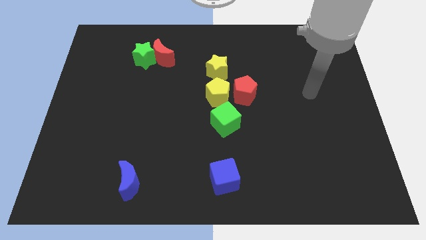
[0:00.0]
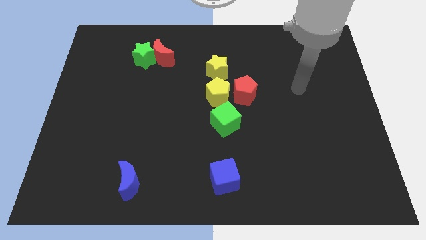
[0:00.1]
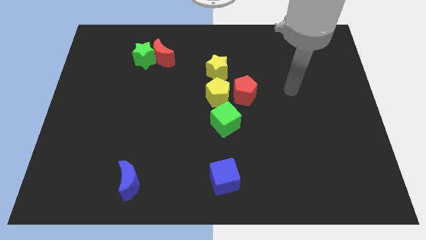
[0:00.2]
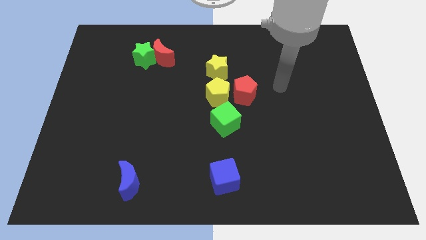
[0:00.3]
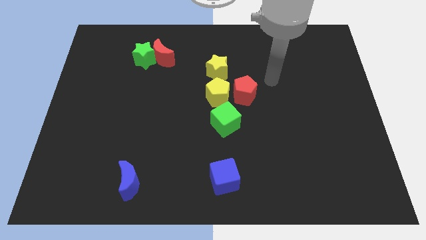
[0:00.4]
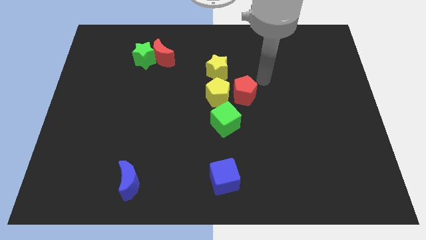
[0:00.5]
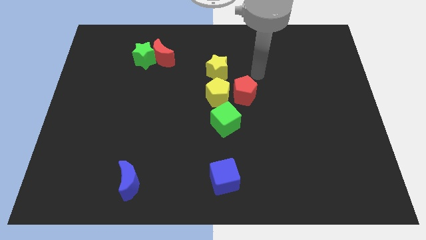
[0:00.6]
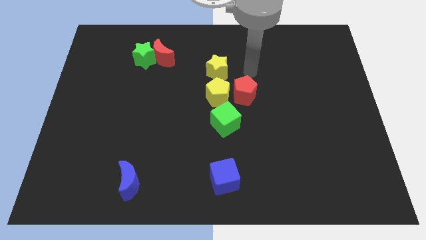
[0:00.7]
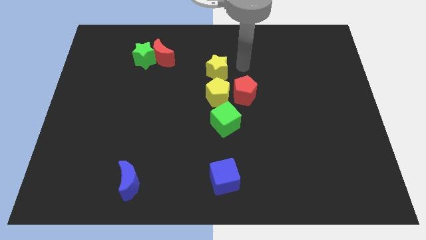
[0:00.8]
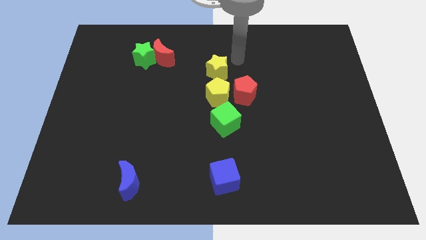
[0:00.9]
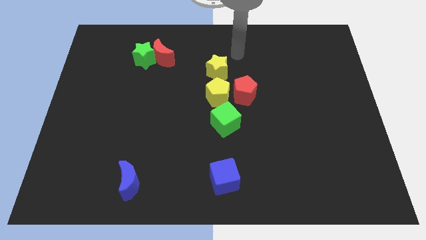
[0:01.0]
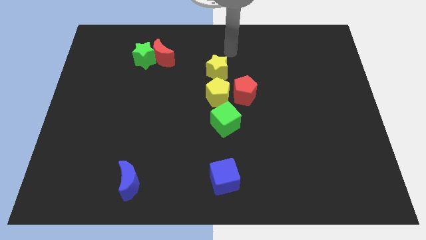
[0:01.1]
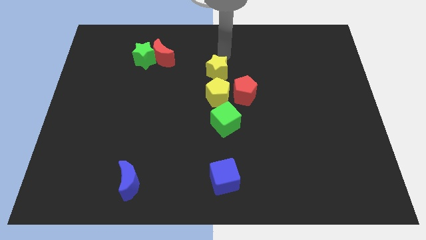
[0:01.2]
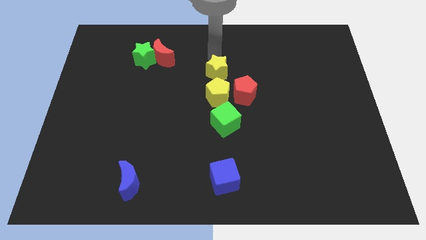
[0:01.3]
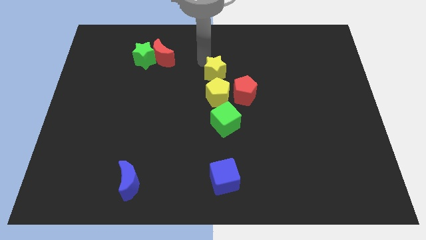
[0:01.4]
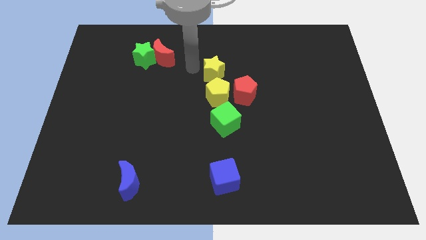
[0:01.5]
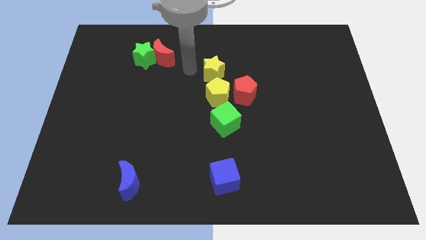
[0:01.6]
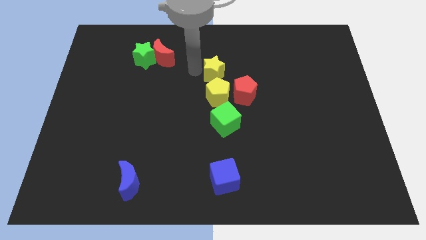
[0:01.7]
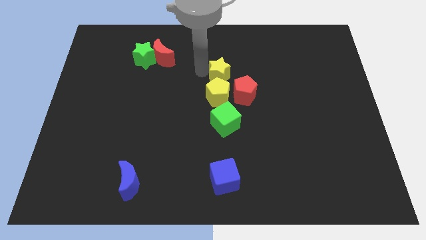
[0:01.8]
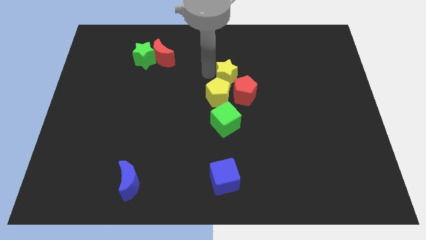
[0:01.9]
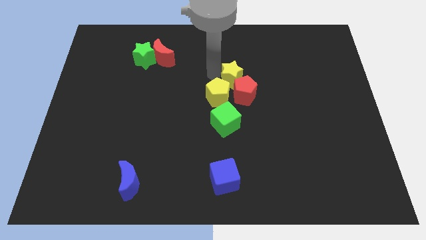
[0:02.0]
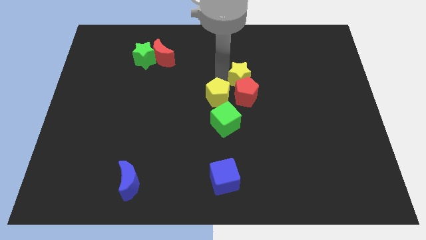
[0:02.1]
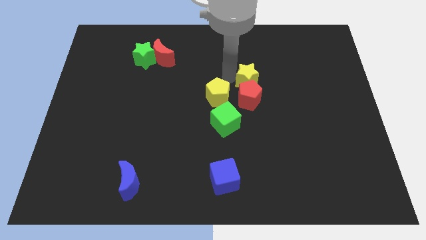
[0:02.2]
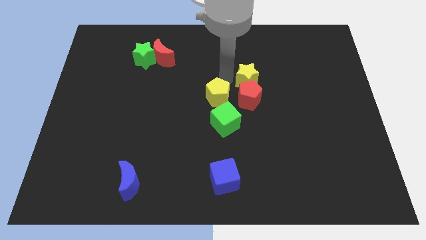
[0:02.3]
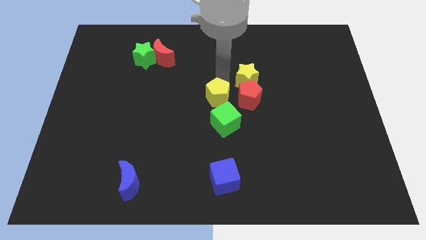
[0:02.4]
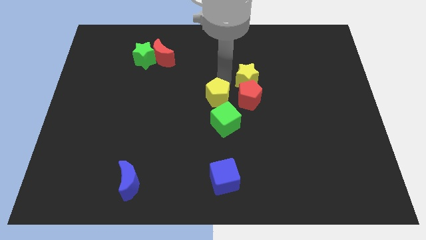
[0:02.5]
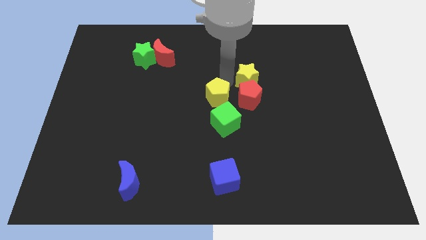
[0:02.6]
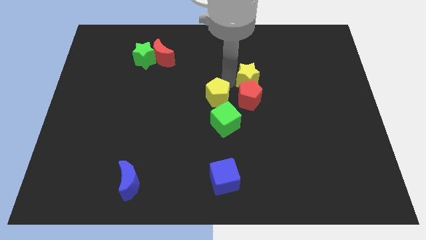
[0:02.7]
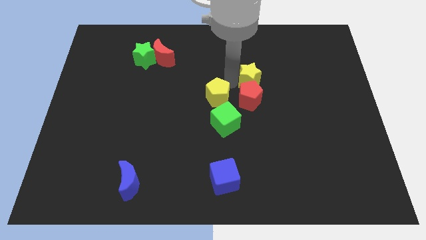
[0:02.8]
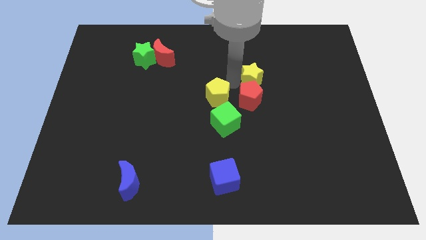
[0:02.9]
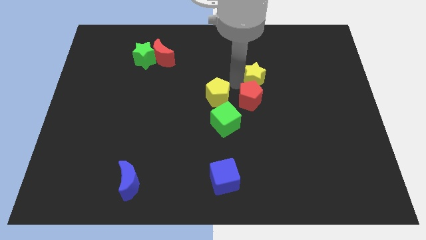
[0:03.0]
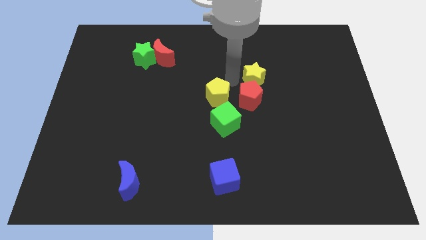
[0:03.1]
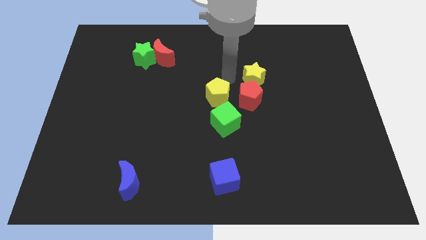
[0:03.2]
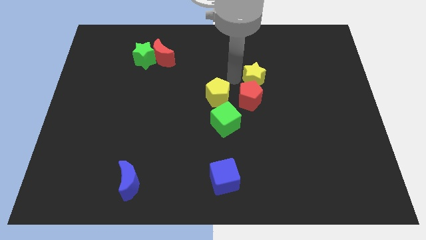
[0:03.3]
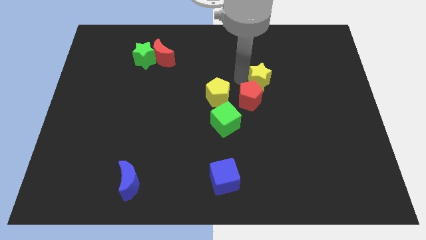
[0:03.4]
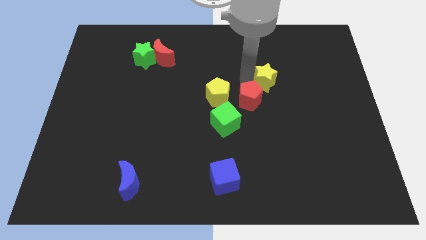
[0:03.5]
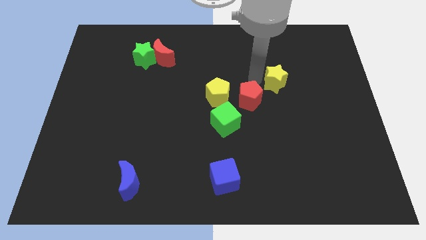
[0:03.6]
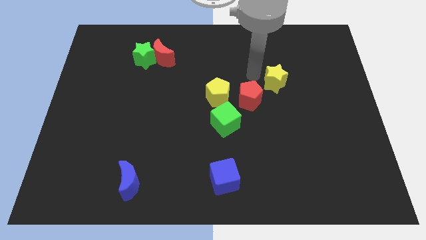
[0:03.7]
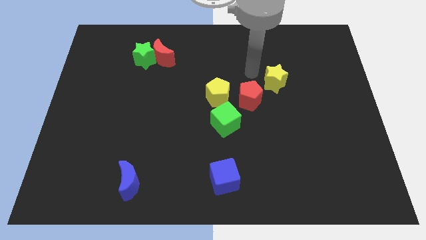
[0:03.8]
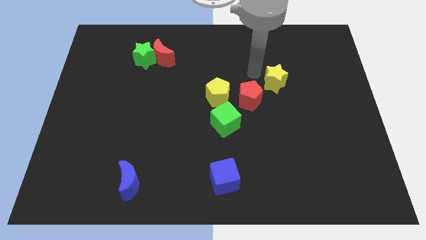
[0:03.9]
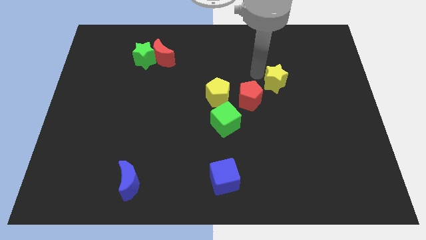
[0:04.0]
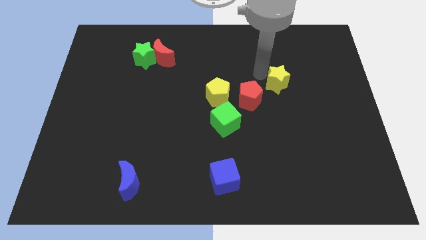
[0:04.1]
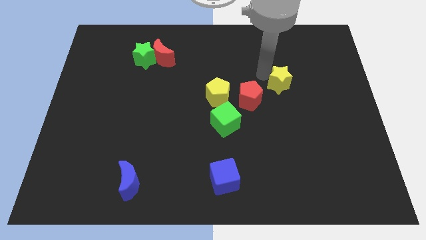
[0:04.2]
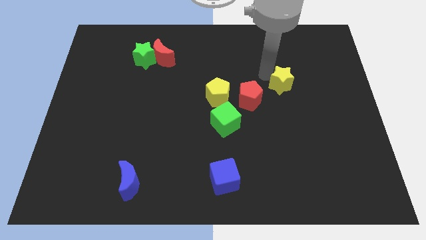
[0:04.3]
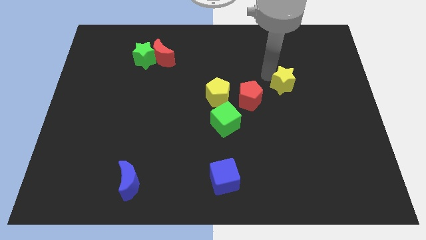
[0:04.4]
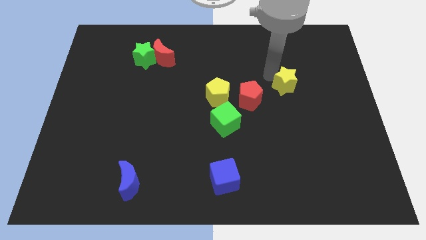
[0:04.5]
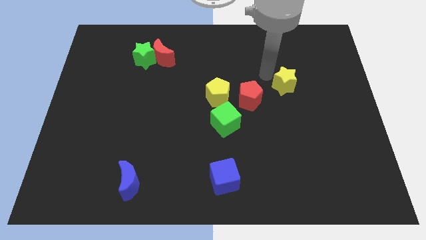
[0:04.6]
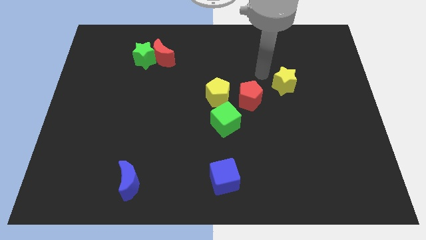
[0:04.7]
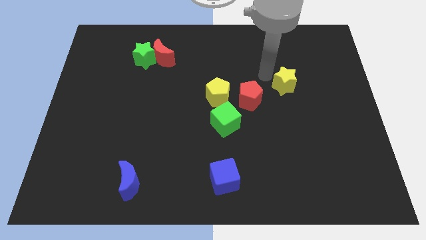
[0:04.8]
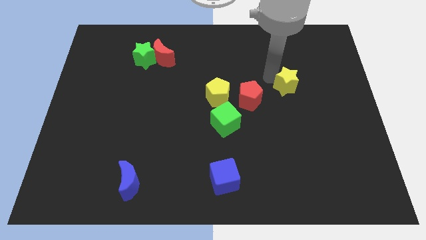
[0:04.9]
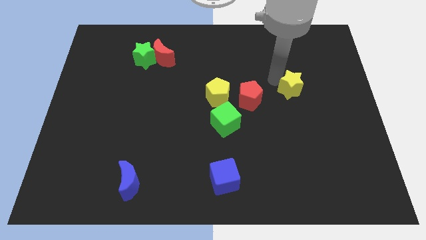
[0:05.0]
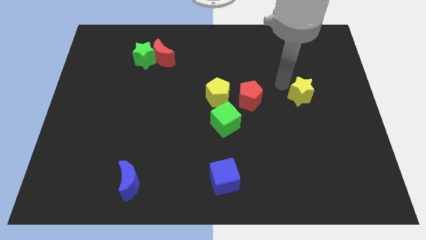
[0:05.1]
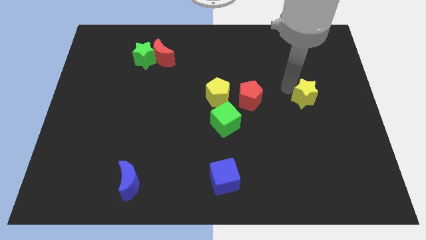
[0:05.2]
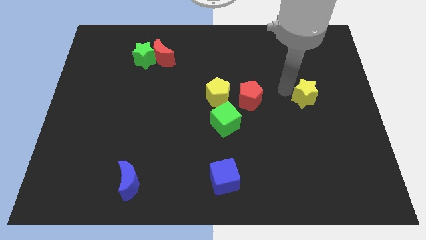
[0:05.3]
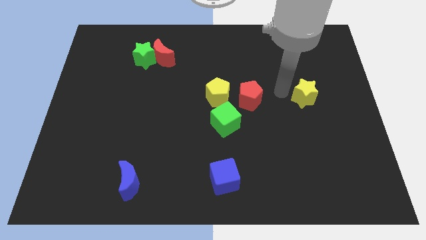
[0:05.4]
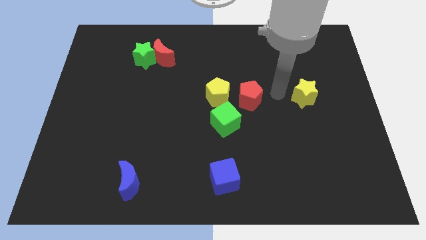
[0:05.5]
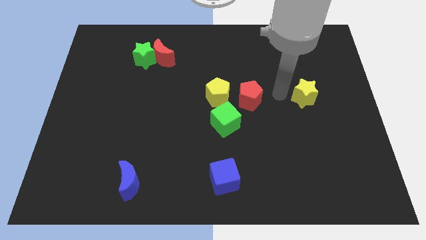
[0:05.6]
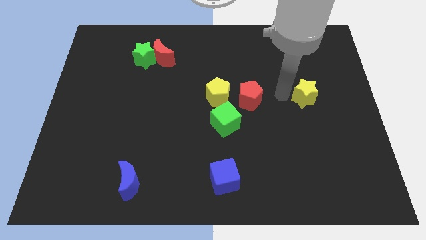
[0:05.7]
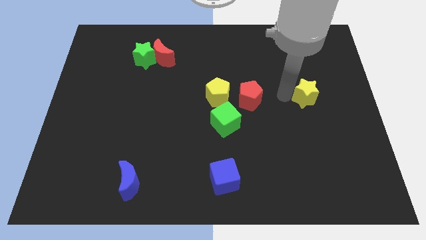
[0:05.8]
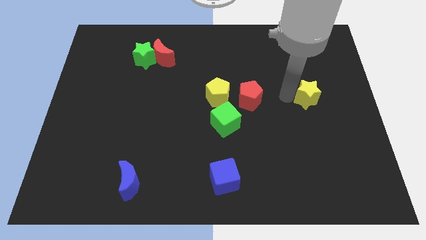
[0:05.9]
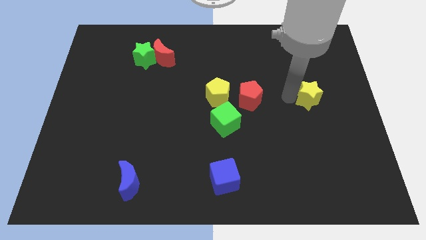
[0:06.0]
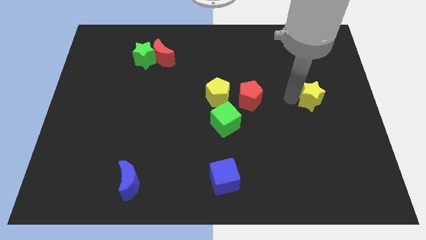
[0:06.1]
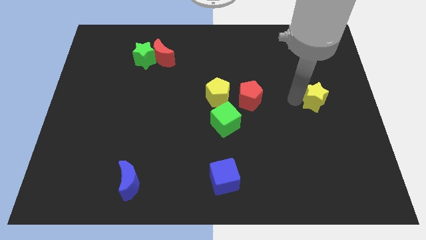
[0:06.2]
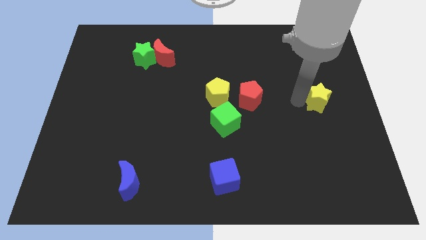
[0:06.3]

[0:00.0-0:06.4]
push the yellow star to the right side of the board
